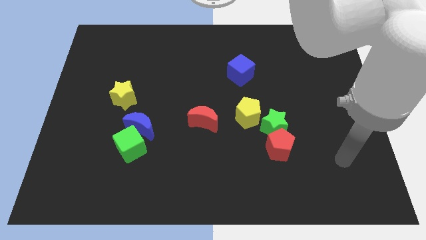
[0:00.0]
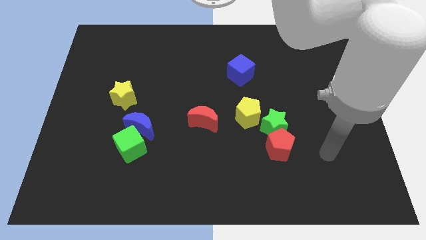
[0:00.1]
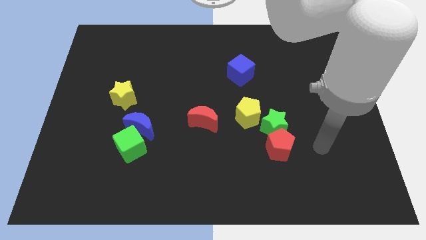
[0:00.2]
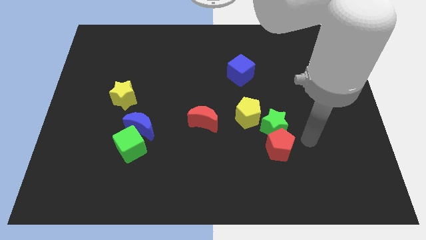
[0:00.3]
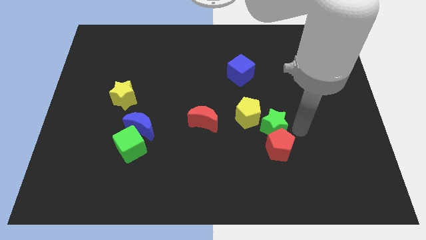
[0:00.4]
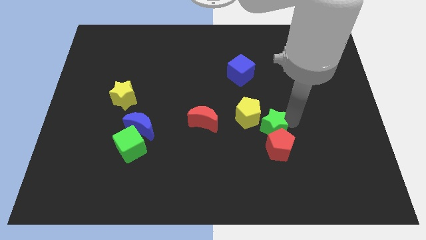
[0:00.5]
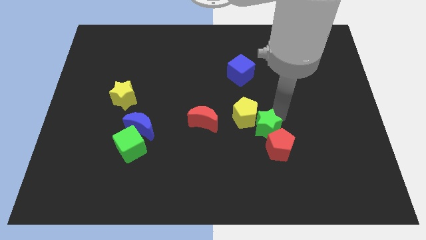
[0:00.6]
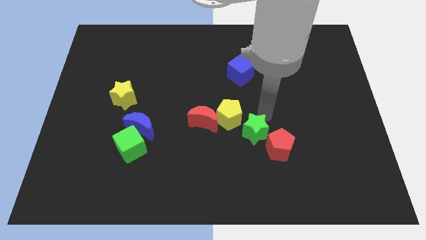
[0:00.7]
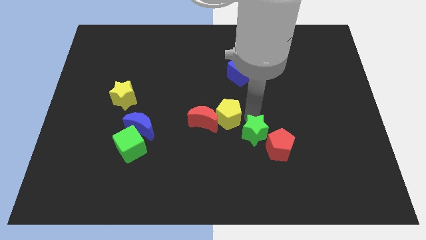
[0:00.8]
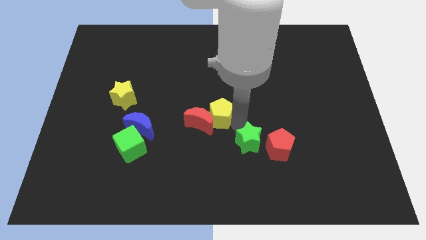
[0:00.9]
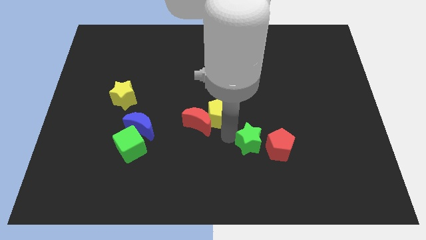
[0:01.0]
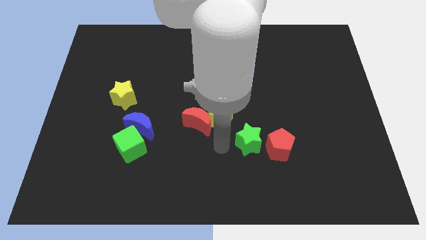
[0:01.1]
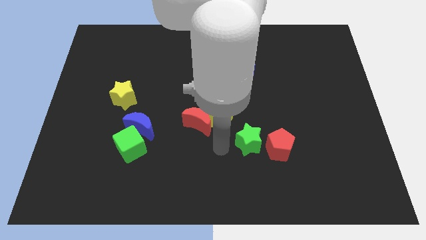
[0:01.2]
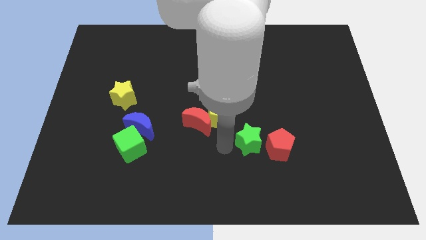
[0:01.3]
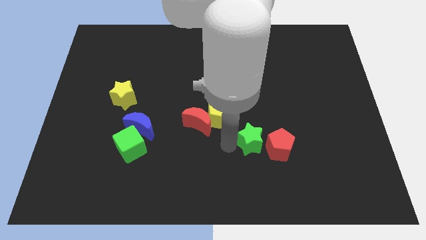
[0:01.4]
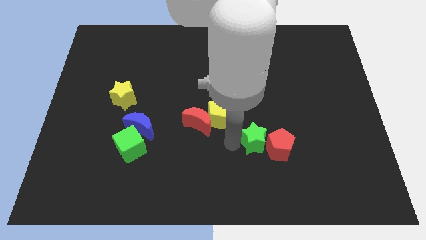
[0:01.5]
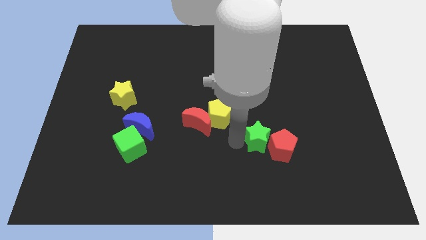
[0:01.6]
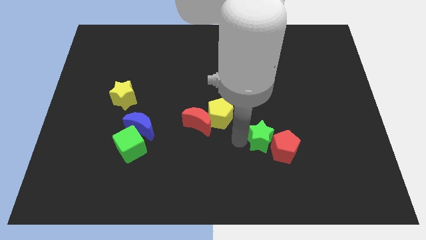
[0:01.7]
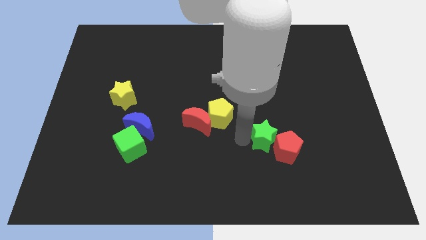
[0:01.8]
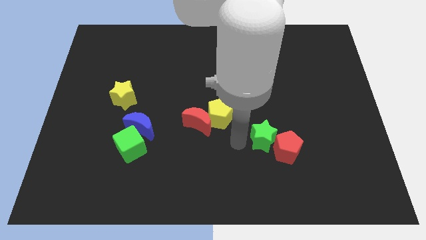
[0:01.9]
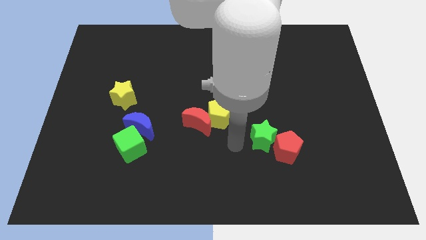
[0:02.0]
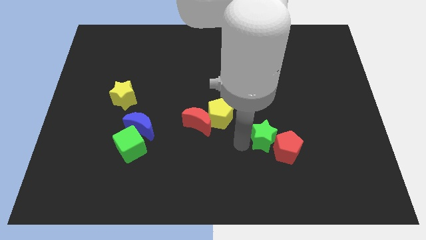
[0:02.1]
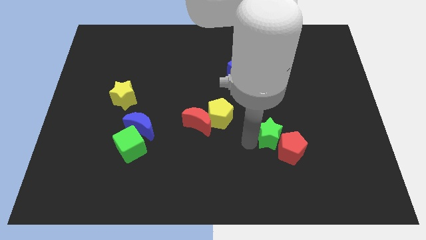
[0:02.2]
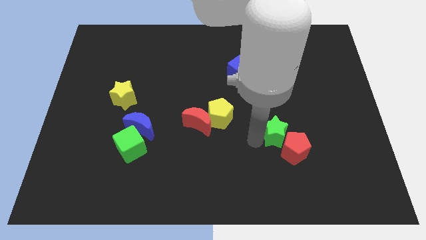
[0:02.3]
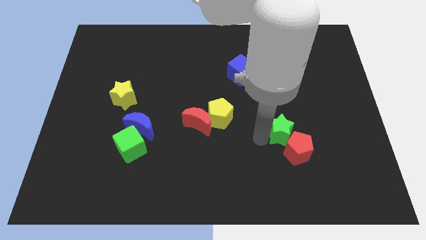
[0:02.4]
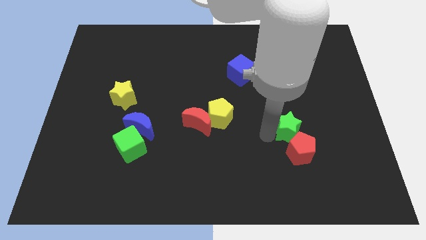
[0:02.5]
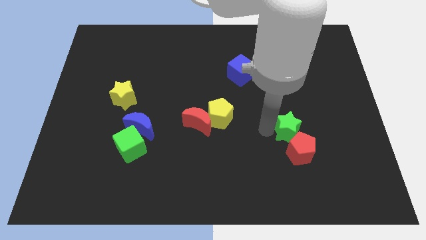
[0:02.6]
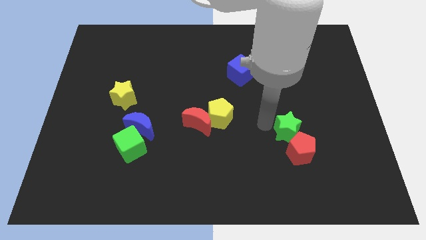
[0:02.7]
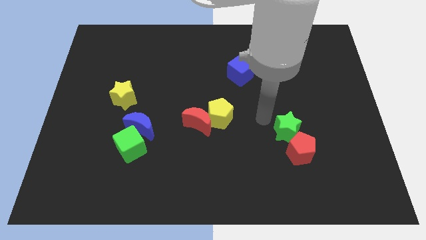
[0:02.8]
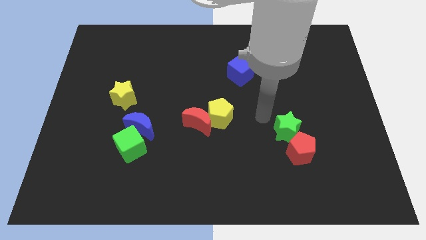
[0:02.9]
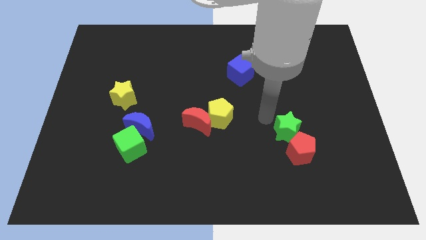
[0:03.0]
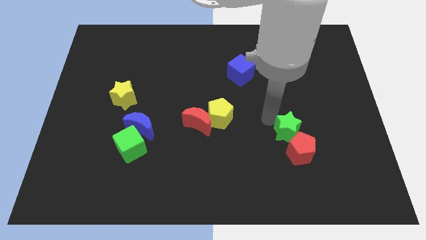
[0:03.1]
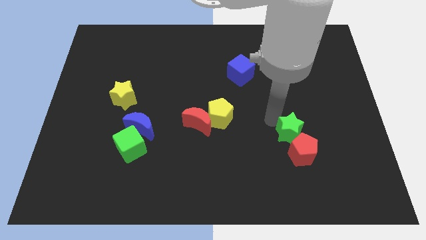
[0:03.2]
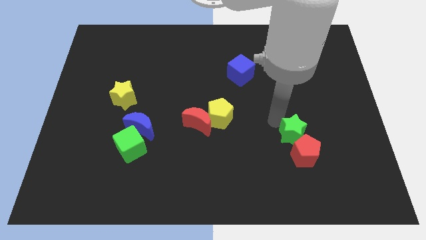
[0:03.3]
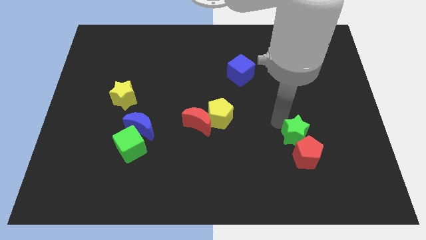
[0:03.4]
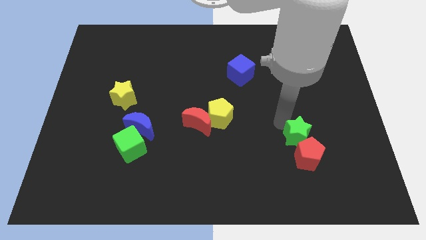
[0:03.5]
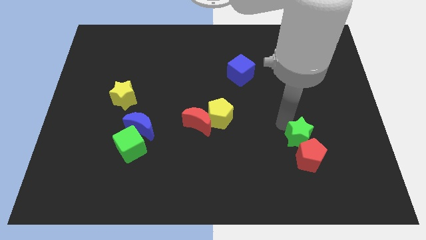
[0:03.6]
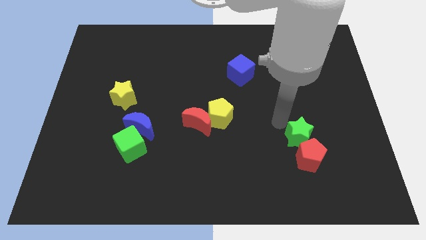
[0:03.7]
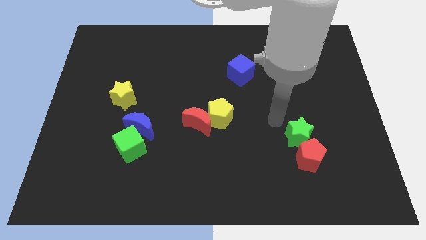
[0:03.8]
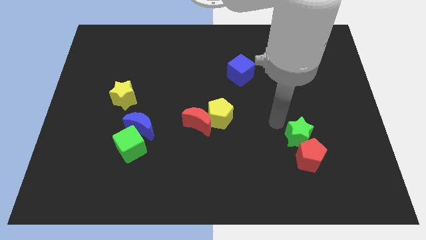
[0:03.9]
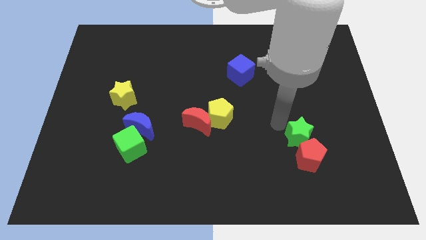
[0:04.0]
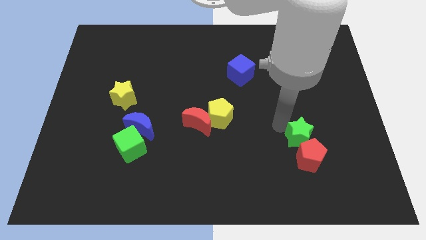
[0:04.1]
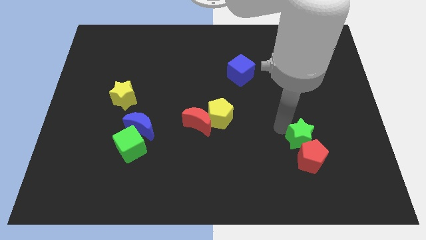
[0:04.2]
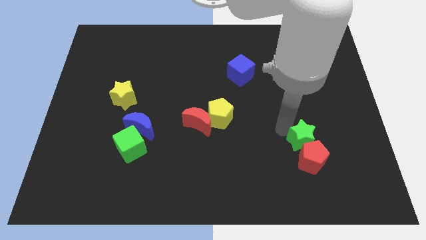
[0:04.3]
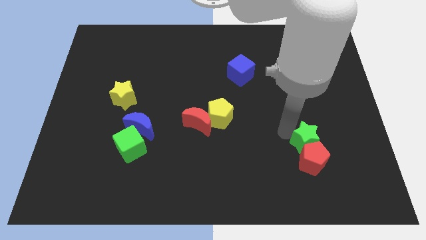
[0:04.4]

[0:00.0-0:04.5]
slightly slide the green star down and to the right

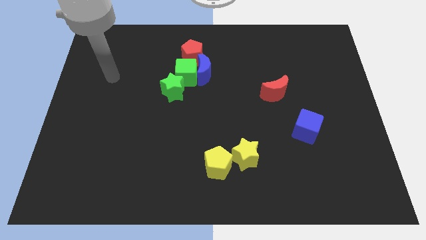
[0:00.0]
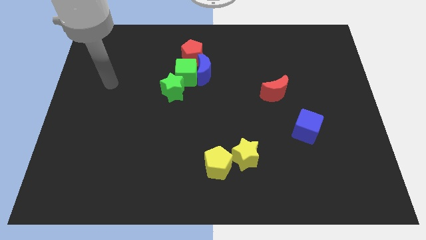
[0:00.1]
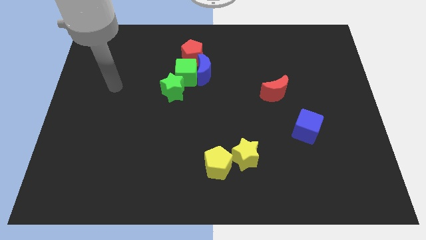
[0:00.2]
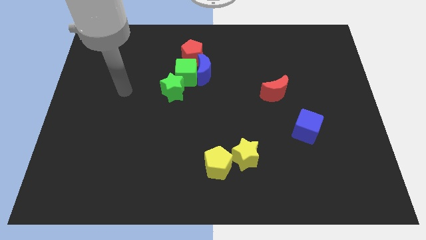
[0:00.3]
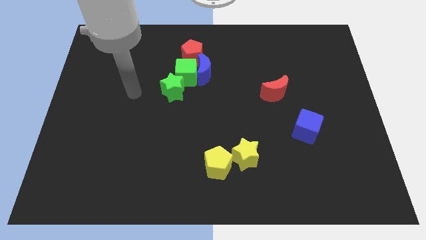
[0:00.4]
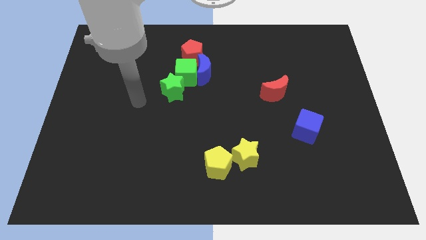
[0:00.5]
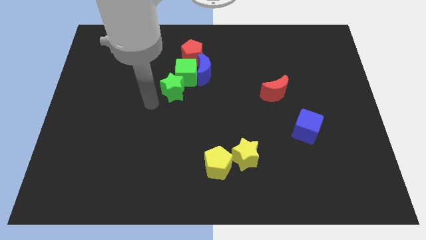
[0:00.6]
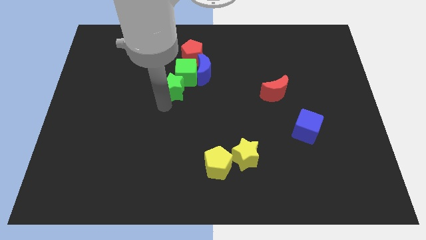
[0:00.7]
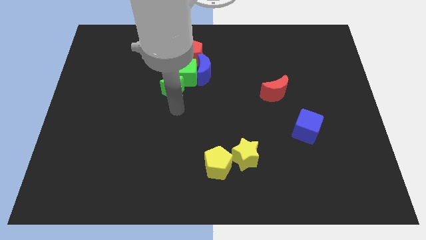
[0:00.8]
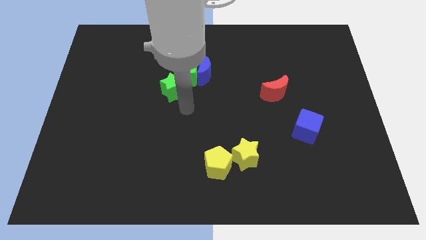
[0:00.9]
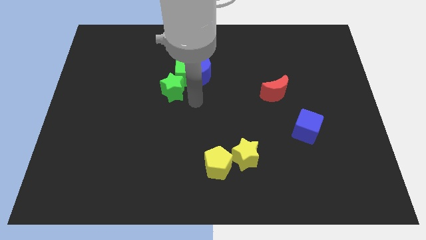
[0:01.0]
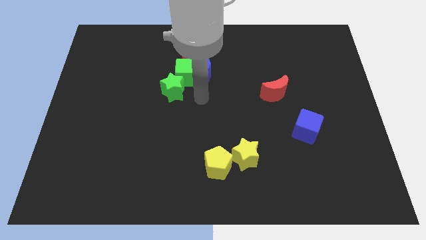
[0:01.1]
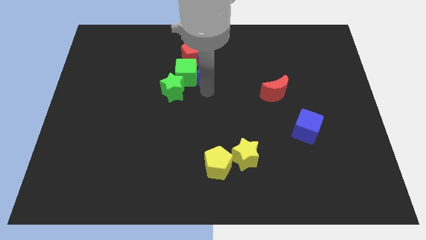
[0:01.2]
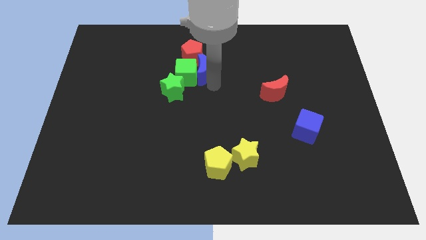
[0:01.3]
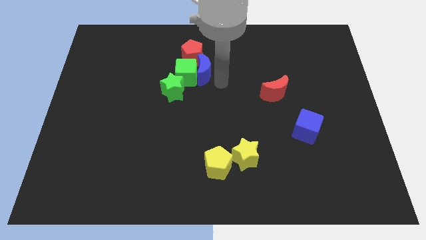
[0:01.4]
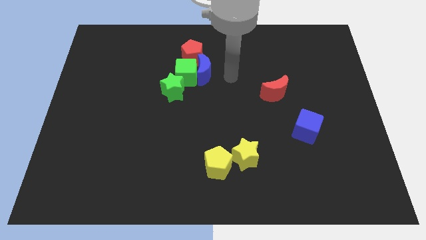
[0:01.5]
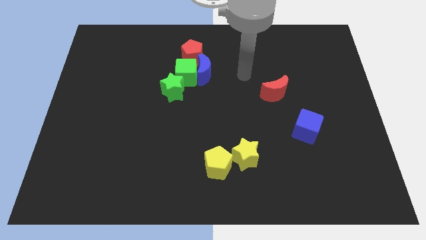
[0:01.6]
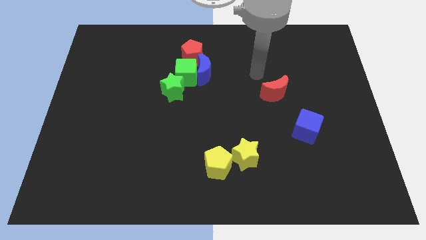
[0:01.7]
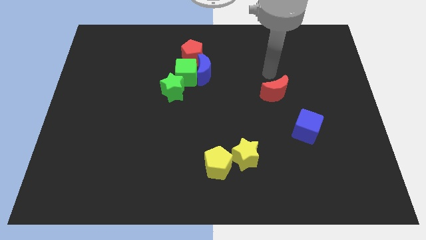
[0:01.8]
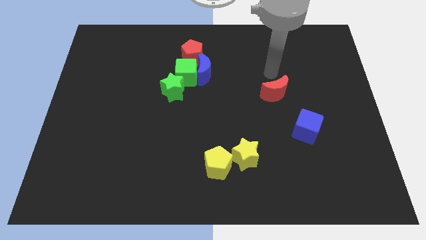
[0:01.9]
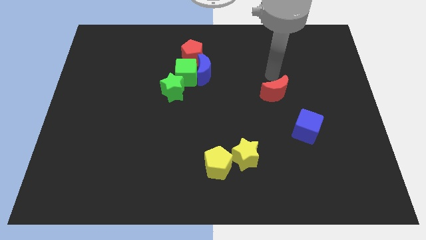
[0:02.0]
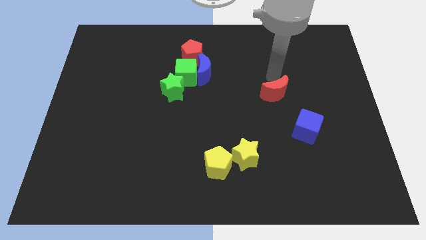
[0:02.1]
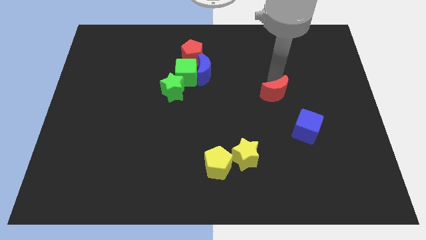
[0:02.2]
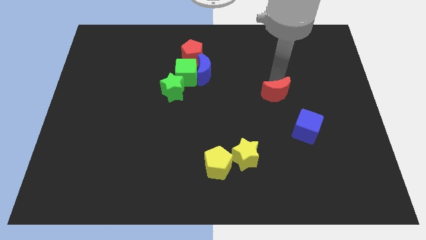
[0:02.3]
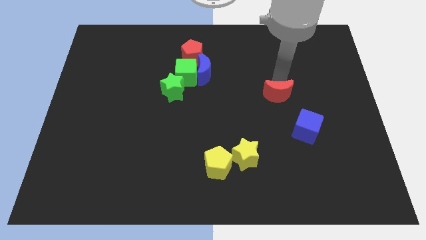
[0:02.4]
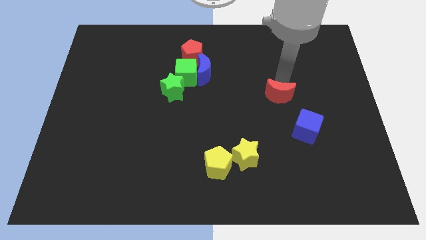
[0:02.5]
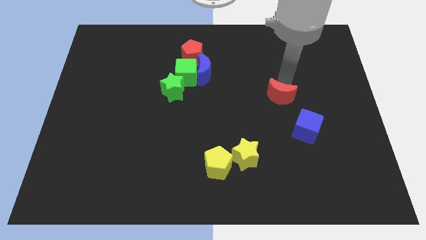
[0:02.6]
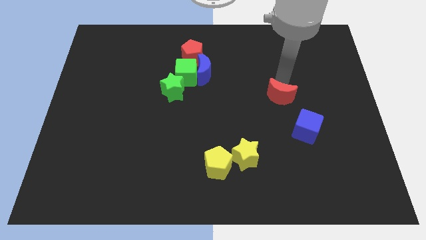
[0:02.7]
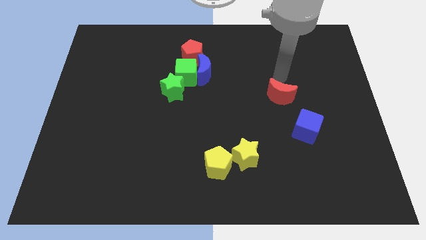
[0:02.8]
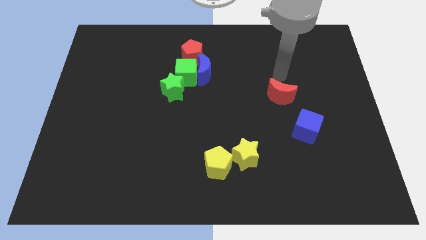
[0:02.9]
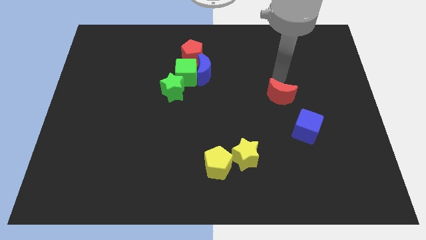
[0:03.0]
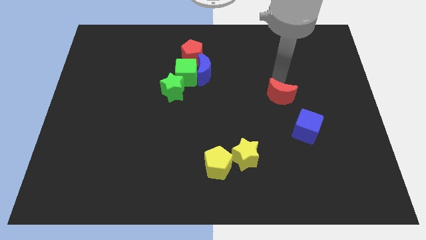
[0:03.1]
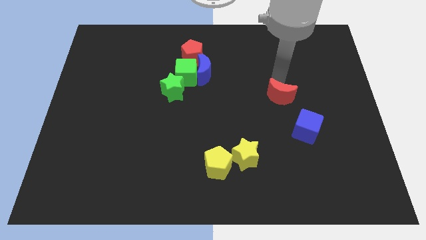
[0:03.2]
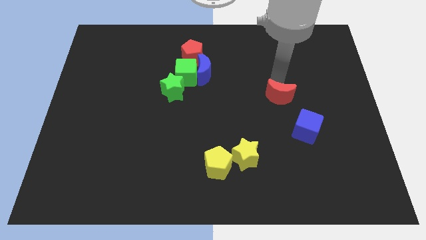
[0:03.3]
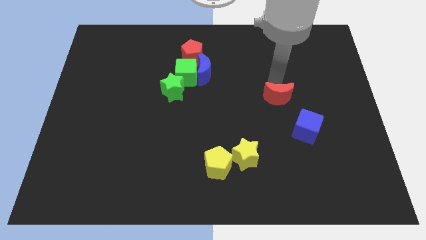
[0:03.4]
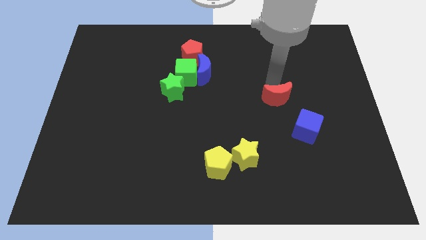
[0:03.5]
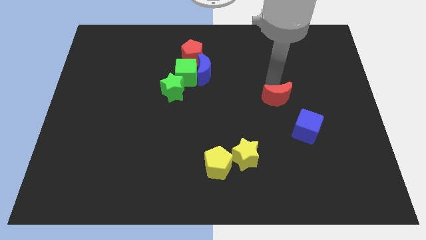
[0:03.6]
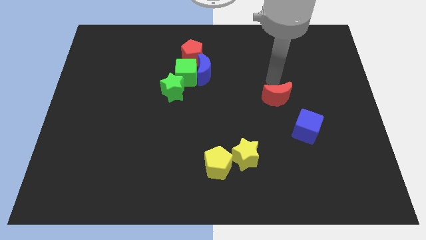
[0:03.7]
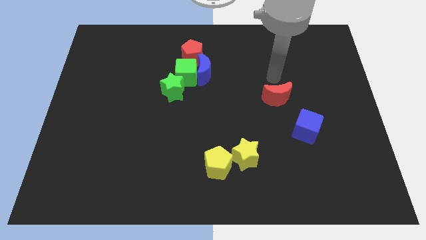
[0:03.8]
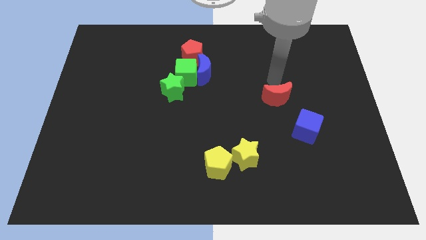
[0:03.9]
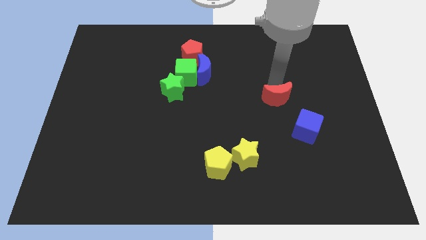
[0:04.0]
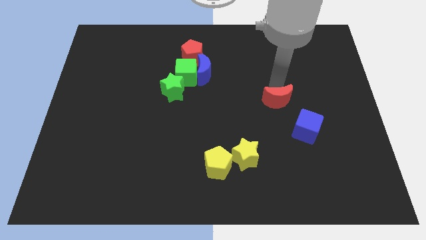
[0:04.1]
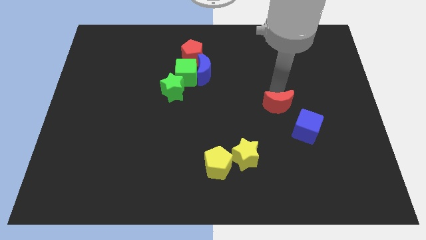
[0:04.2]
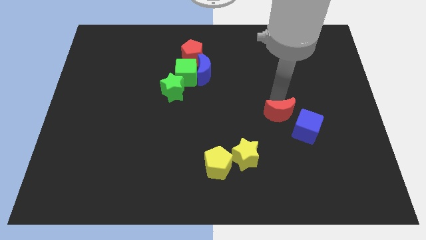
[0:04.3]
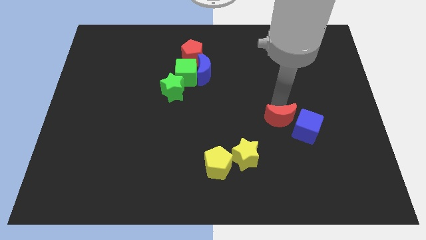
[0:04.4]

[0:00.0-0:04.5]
slide the red moon downwards a bit
